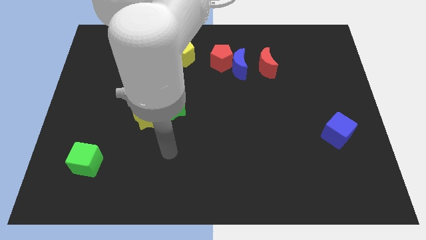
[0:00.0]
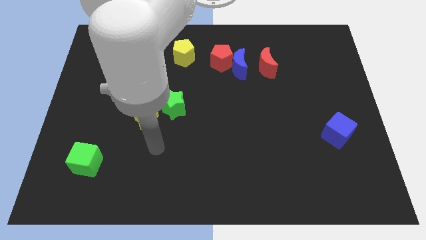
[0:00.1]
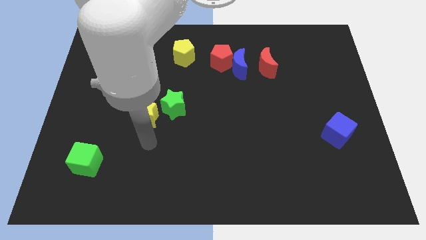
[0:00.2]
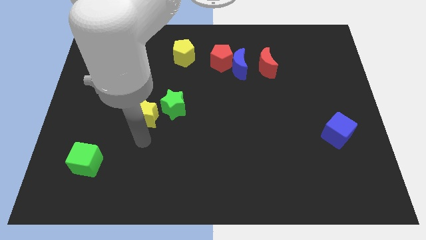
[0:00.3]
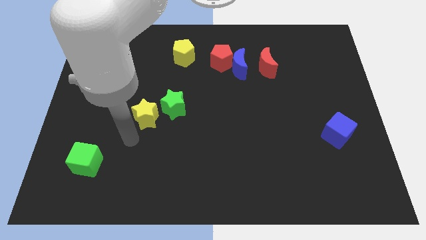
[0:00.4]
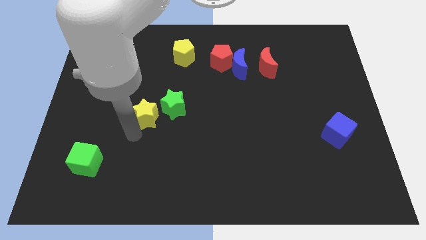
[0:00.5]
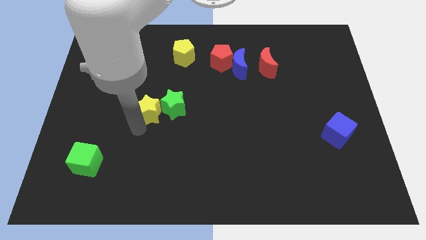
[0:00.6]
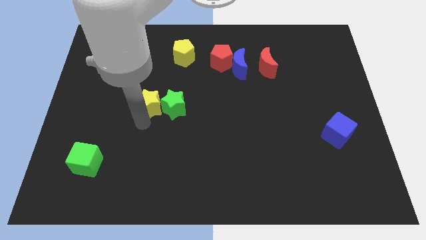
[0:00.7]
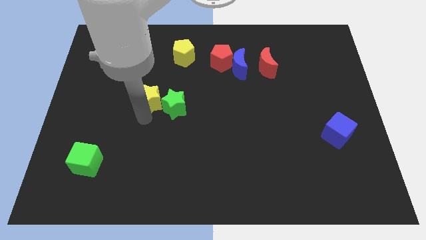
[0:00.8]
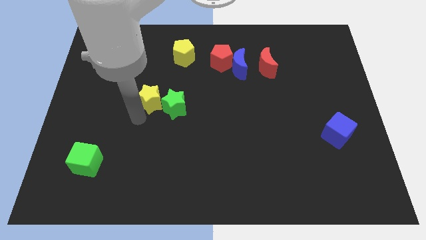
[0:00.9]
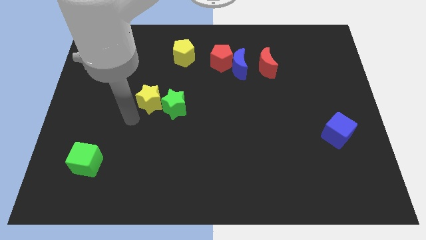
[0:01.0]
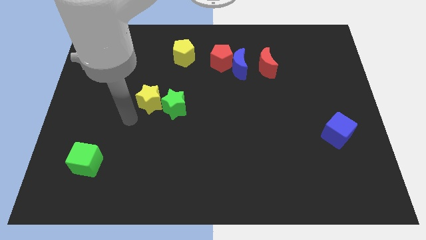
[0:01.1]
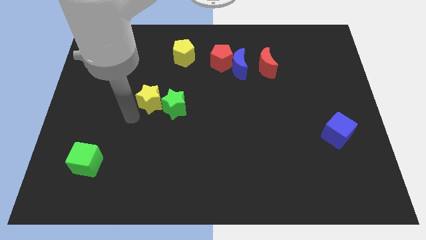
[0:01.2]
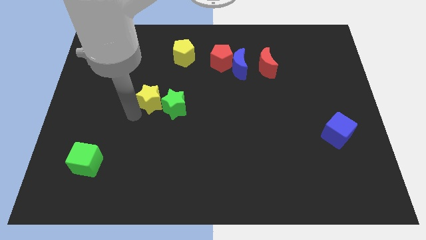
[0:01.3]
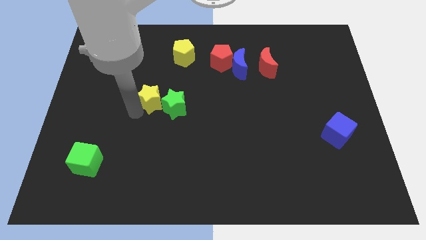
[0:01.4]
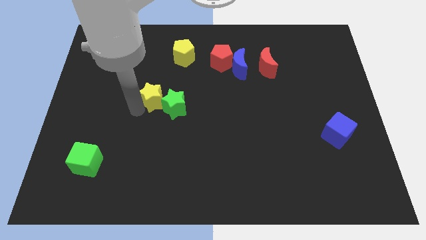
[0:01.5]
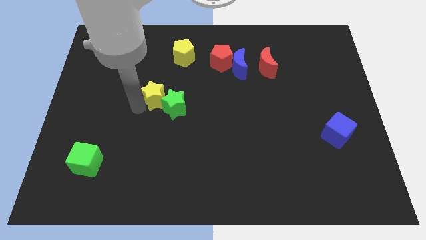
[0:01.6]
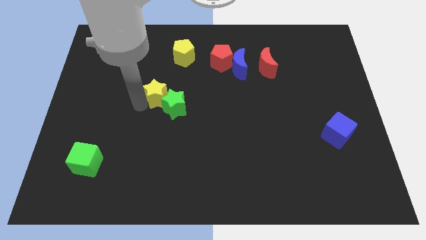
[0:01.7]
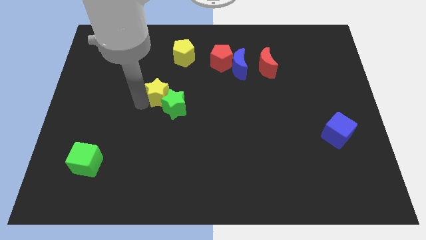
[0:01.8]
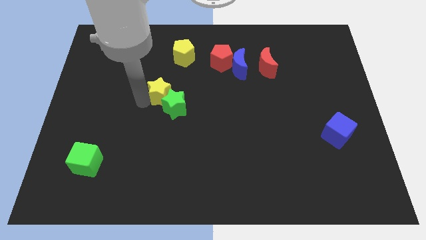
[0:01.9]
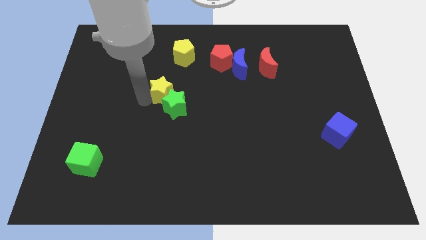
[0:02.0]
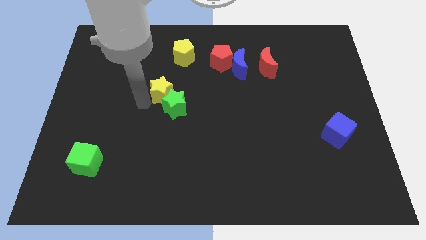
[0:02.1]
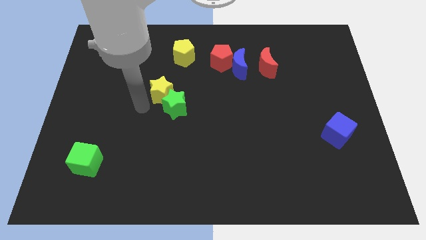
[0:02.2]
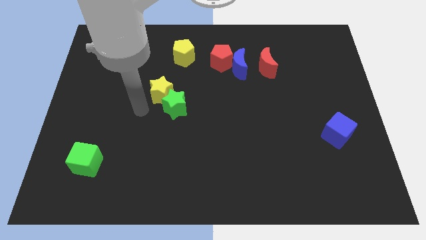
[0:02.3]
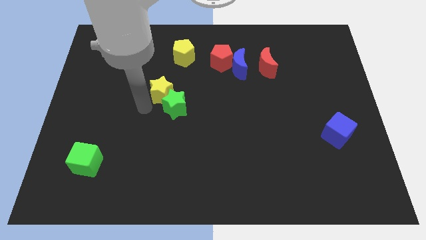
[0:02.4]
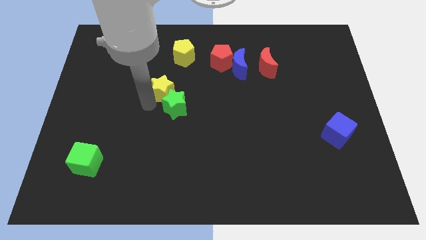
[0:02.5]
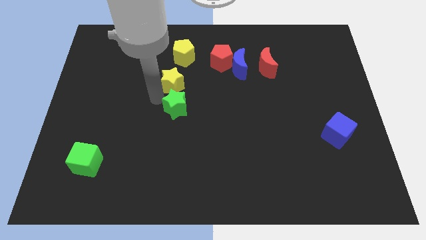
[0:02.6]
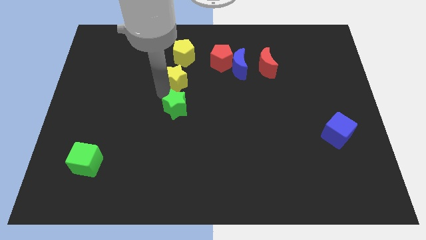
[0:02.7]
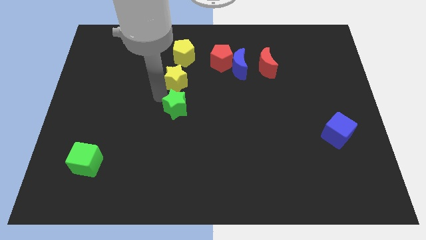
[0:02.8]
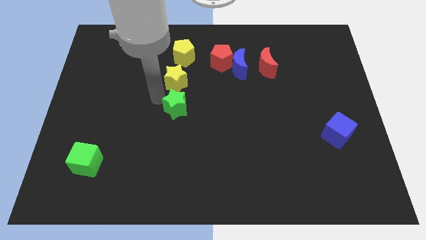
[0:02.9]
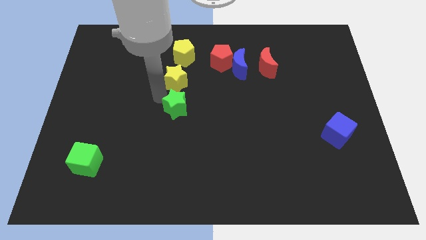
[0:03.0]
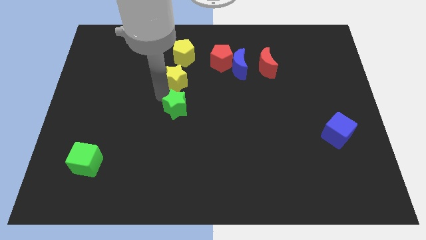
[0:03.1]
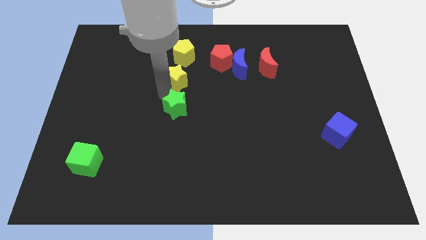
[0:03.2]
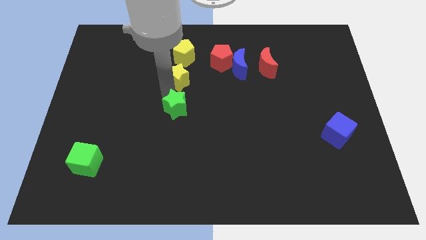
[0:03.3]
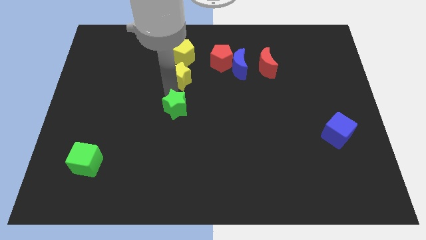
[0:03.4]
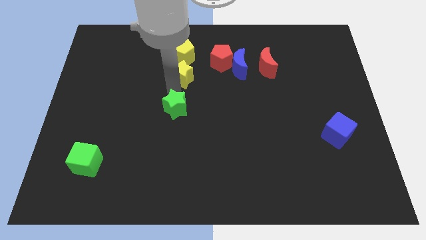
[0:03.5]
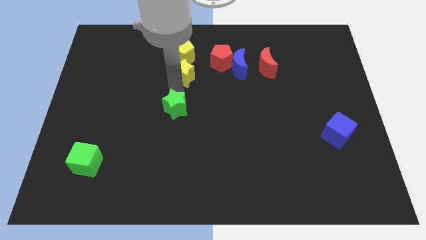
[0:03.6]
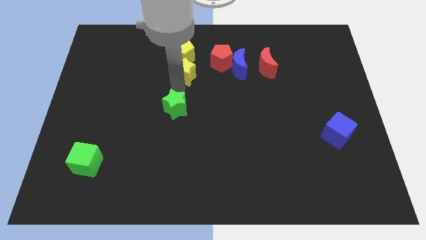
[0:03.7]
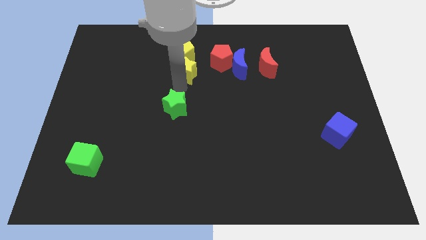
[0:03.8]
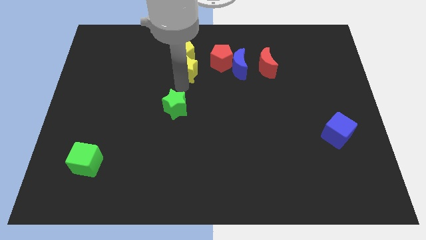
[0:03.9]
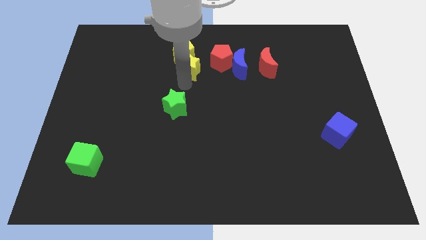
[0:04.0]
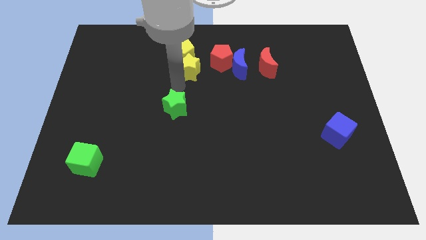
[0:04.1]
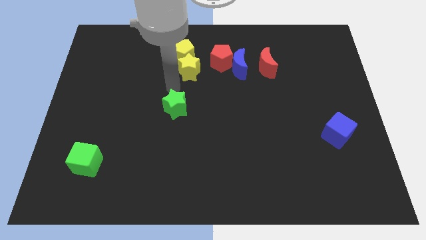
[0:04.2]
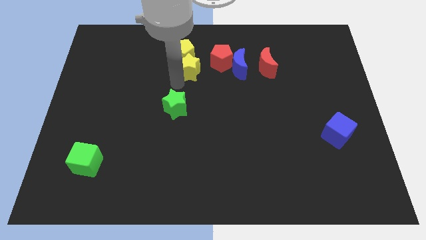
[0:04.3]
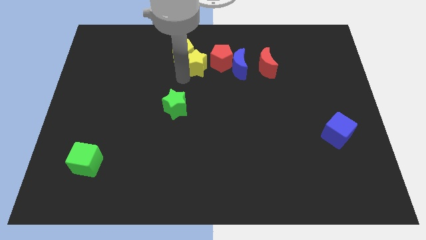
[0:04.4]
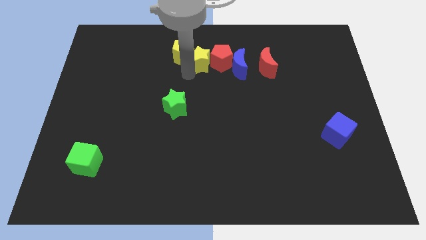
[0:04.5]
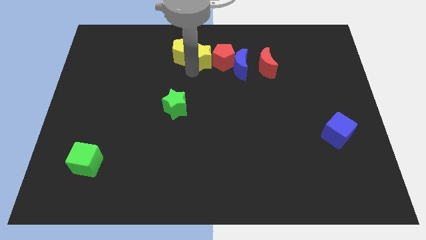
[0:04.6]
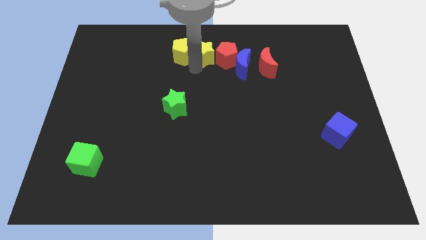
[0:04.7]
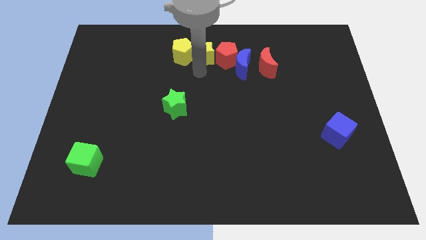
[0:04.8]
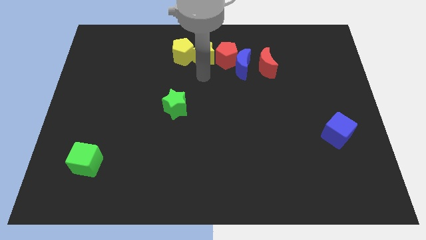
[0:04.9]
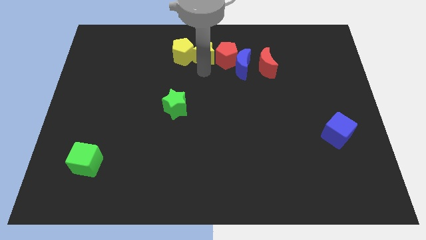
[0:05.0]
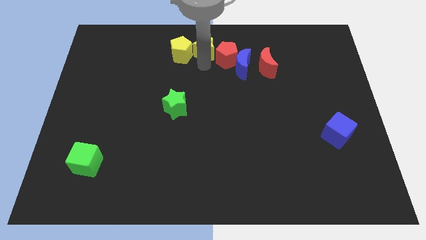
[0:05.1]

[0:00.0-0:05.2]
push the yellow star to the top

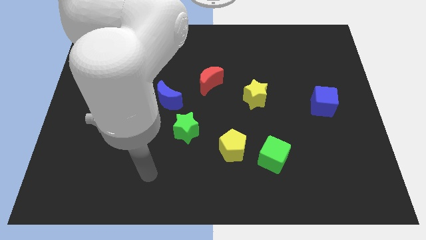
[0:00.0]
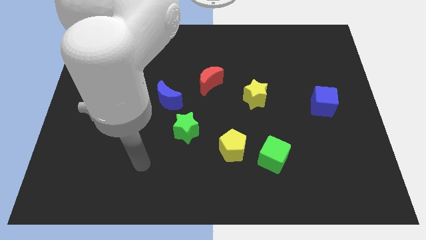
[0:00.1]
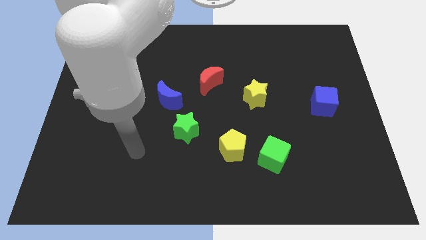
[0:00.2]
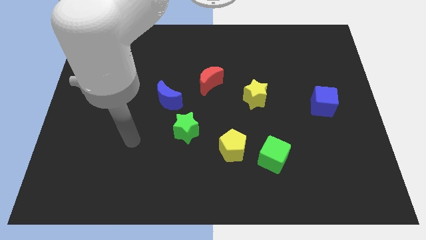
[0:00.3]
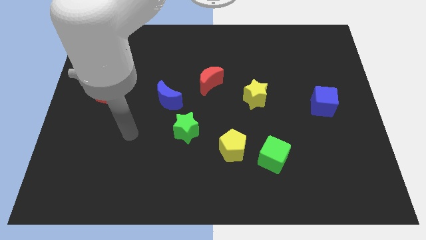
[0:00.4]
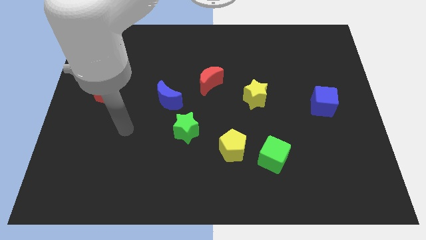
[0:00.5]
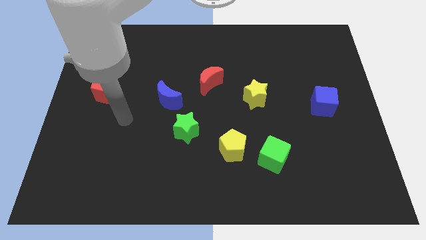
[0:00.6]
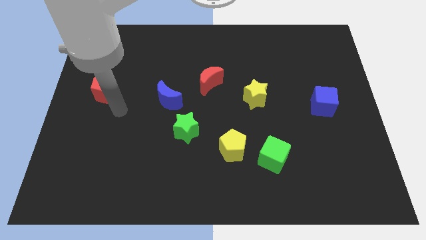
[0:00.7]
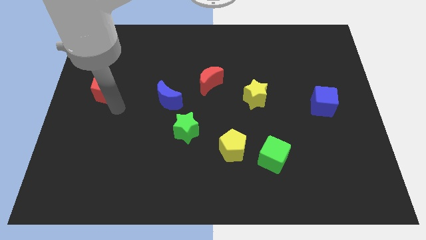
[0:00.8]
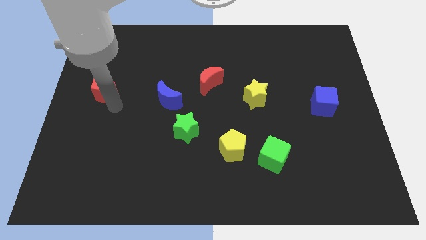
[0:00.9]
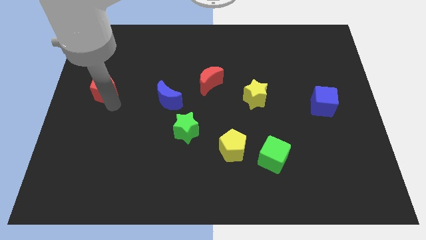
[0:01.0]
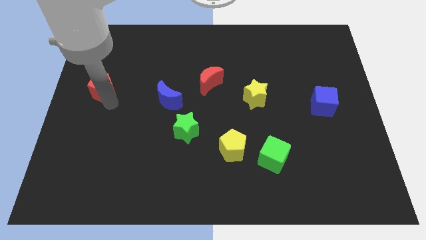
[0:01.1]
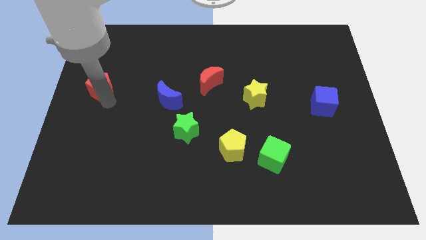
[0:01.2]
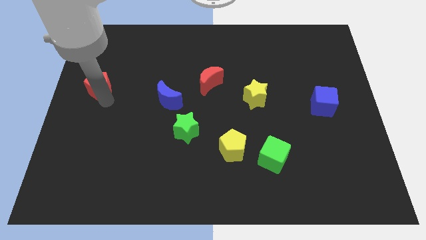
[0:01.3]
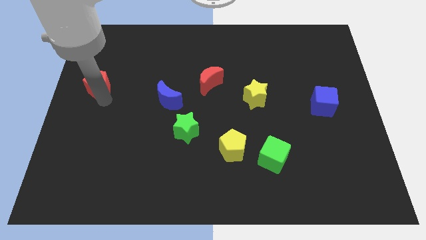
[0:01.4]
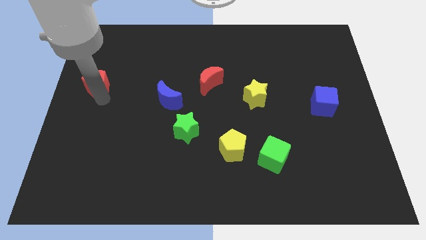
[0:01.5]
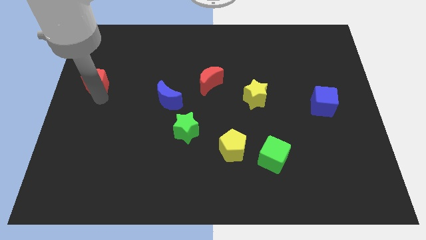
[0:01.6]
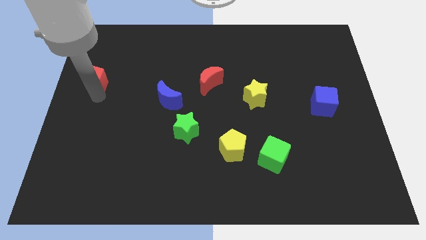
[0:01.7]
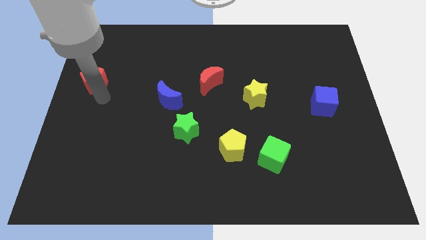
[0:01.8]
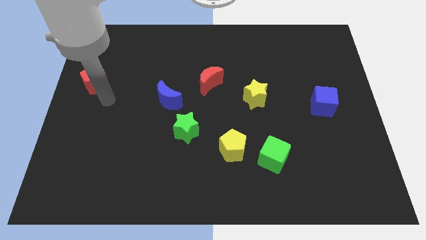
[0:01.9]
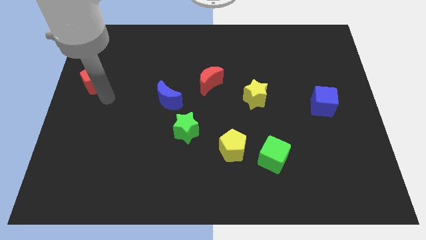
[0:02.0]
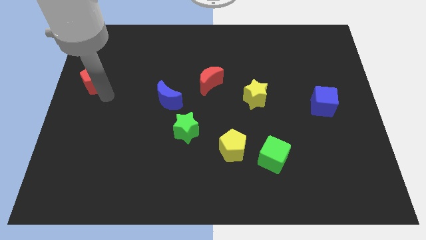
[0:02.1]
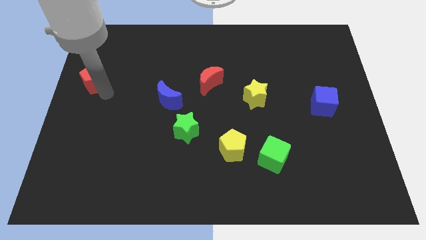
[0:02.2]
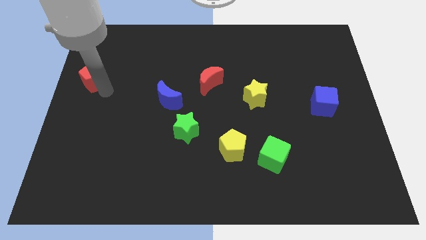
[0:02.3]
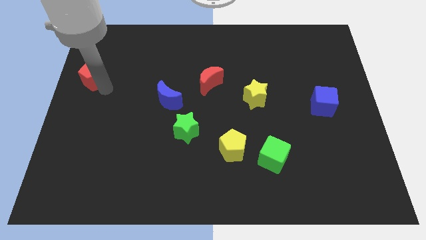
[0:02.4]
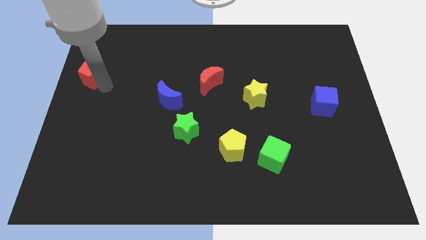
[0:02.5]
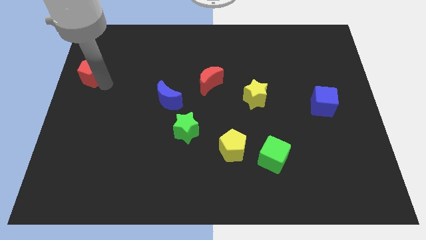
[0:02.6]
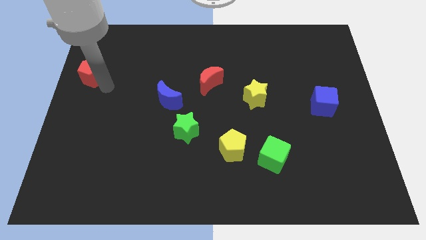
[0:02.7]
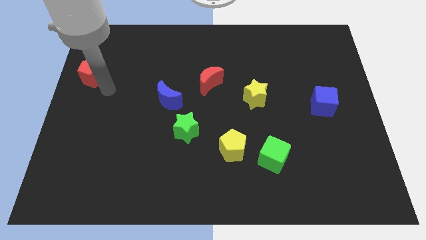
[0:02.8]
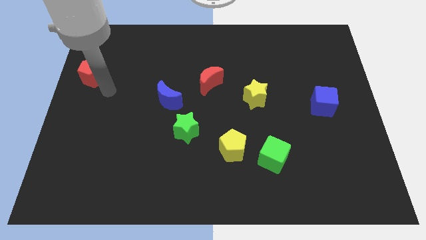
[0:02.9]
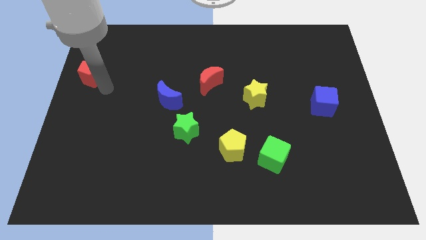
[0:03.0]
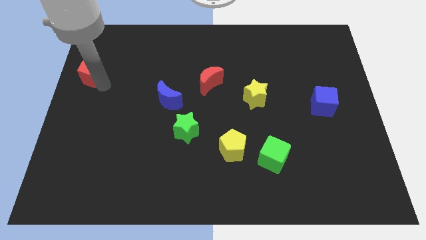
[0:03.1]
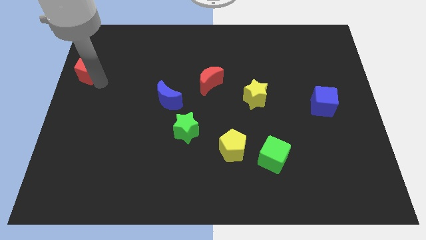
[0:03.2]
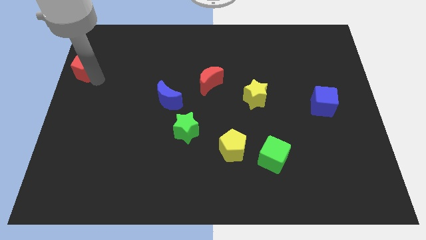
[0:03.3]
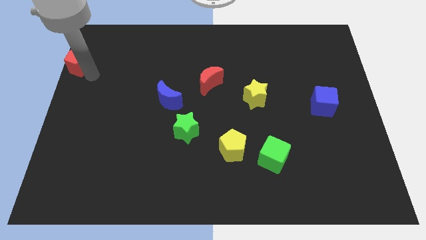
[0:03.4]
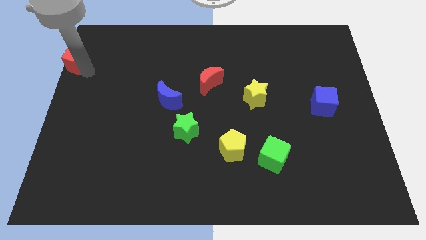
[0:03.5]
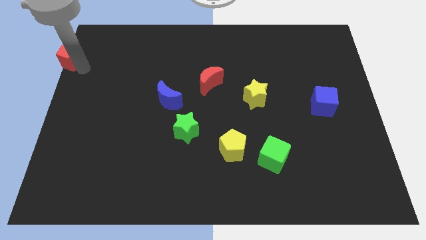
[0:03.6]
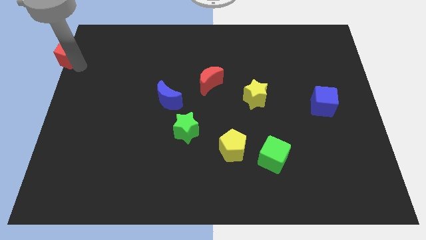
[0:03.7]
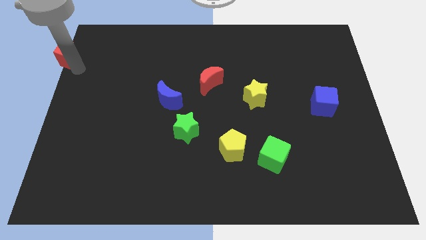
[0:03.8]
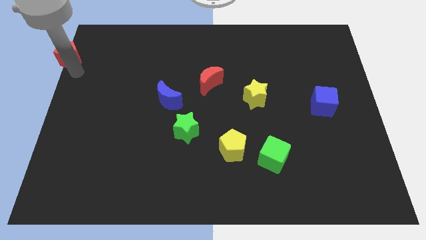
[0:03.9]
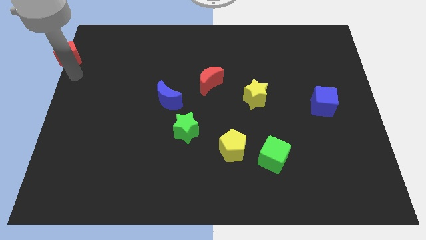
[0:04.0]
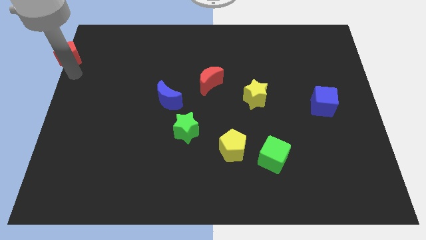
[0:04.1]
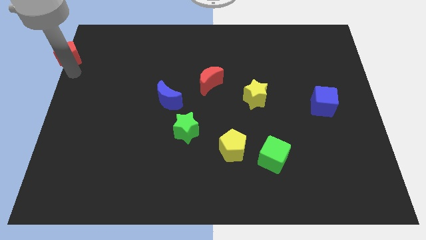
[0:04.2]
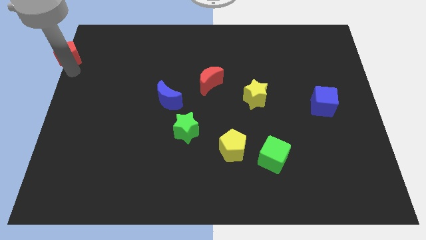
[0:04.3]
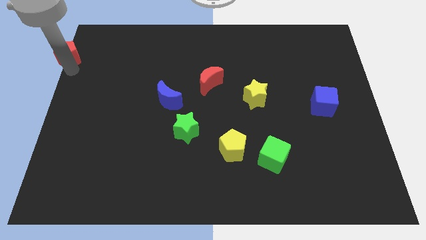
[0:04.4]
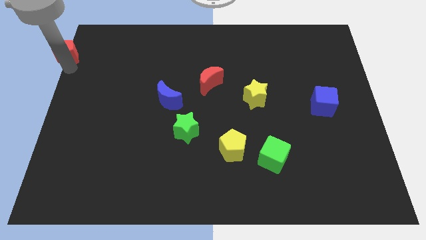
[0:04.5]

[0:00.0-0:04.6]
slide the red pentagon to the top left corner
